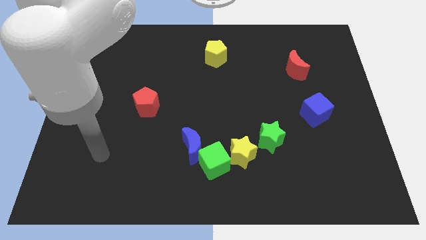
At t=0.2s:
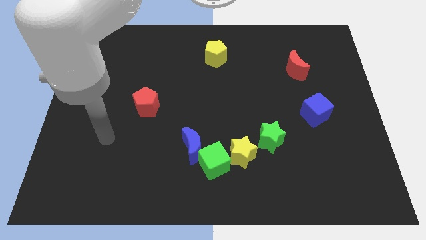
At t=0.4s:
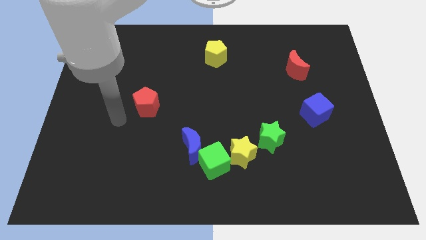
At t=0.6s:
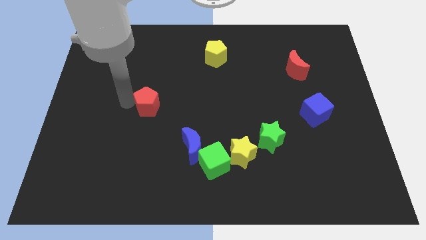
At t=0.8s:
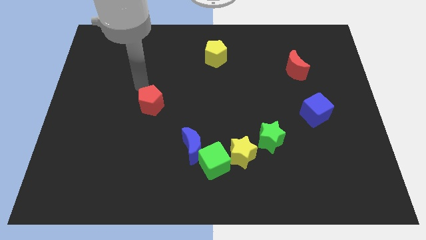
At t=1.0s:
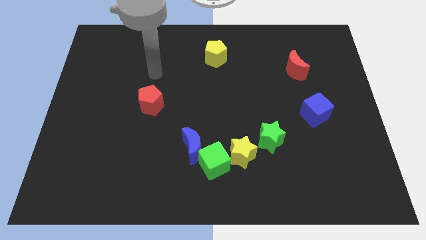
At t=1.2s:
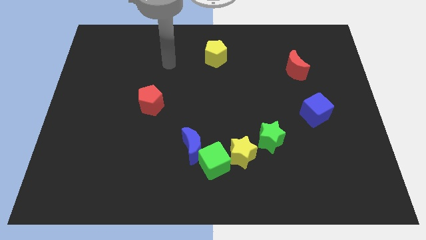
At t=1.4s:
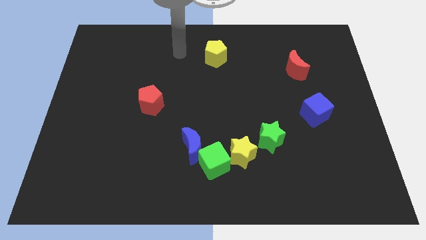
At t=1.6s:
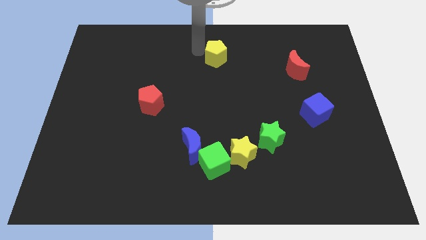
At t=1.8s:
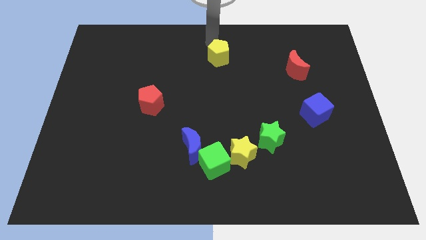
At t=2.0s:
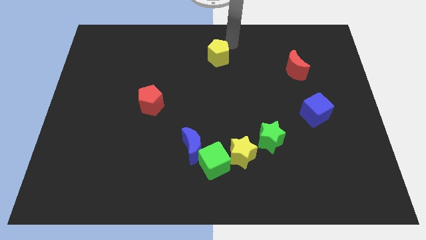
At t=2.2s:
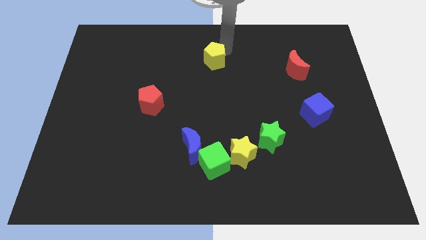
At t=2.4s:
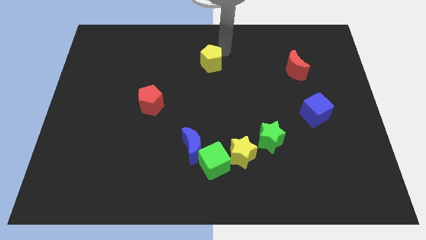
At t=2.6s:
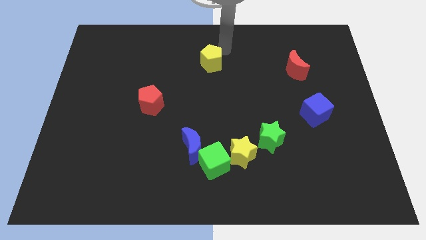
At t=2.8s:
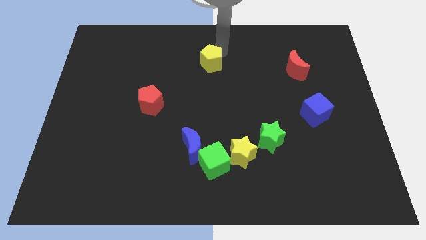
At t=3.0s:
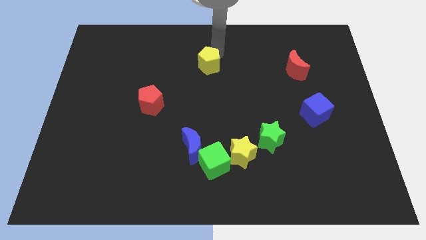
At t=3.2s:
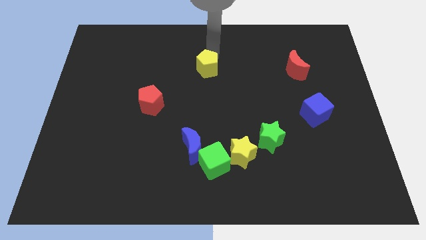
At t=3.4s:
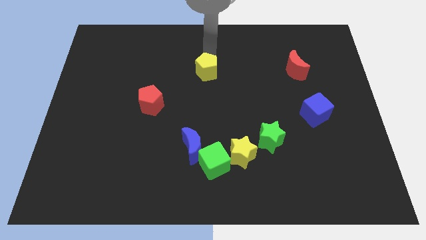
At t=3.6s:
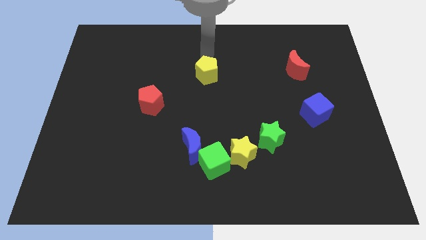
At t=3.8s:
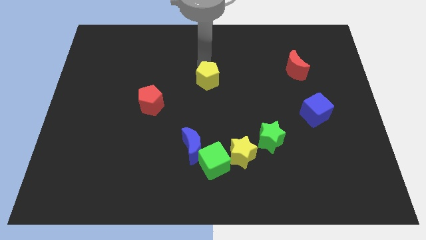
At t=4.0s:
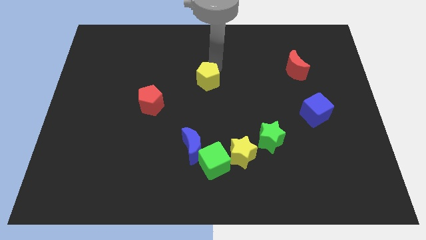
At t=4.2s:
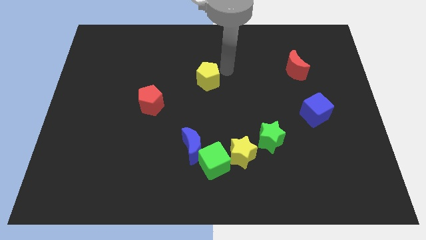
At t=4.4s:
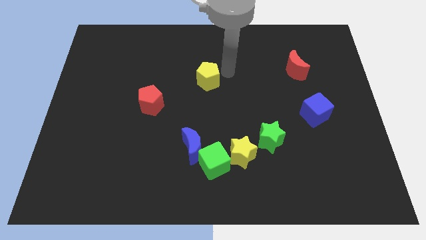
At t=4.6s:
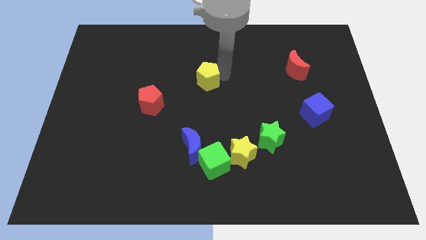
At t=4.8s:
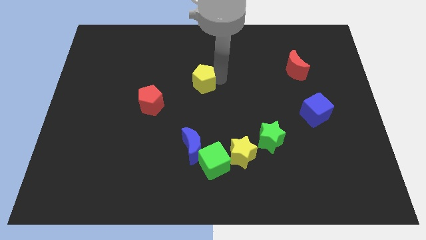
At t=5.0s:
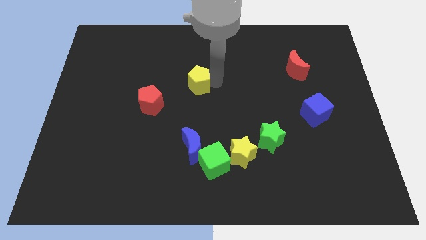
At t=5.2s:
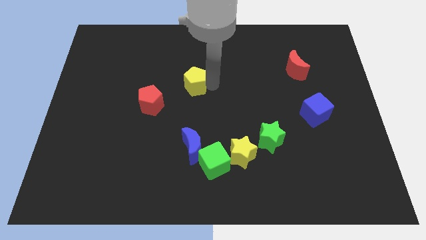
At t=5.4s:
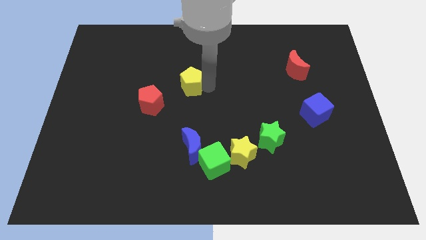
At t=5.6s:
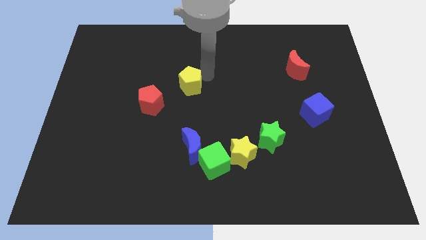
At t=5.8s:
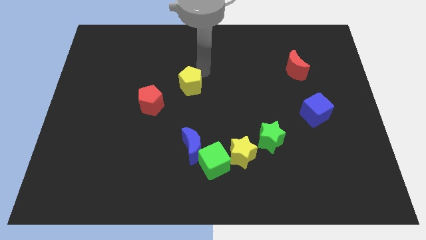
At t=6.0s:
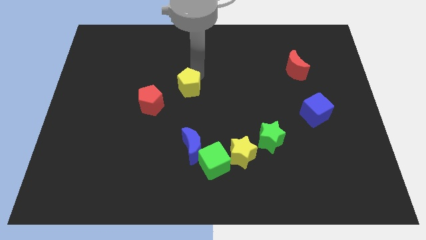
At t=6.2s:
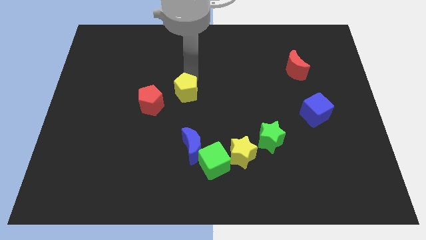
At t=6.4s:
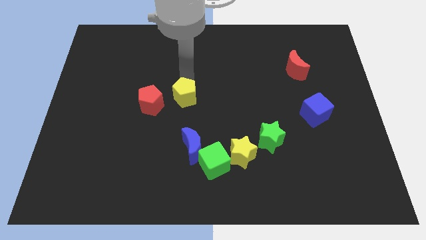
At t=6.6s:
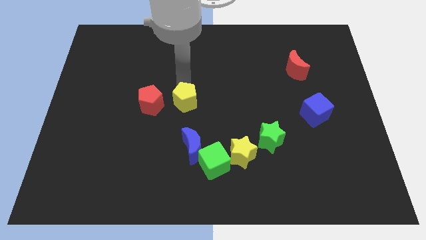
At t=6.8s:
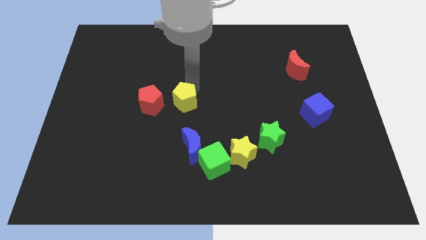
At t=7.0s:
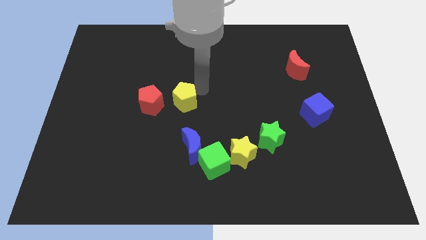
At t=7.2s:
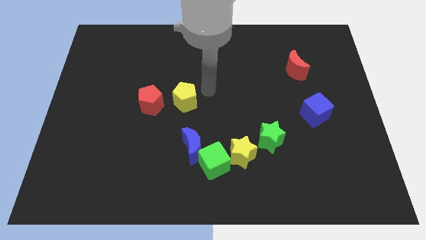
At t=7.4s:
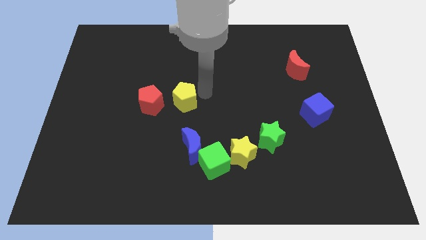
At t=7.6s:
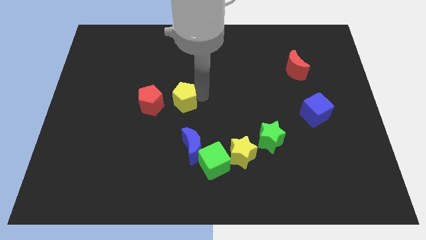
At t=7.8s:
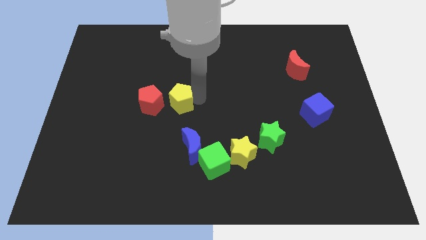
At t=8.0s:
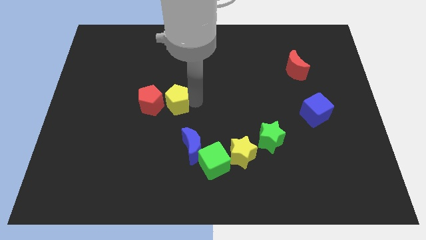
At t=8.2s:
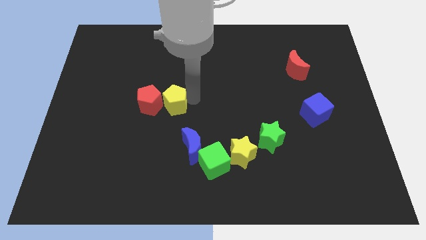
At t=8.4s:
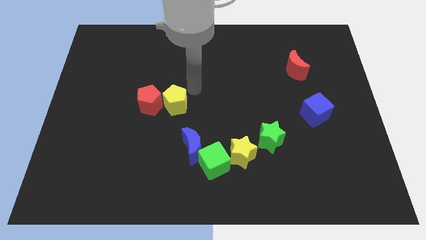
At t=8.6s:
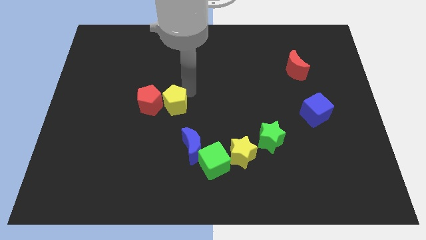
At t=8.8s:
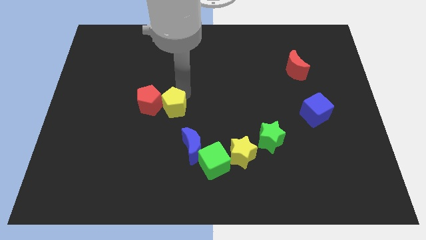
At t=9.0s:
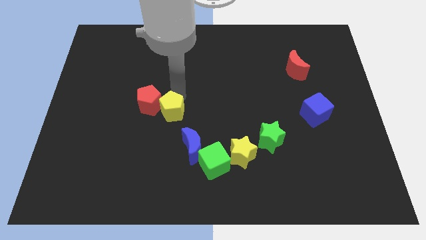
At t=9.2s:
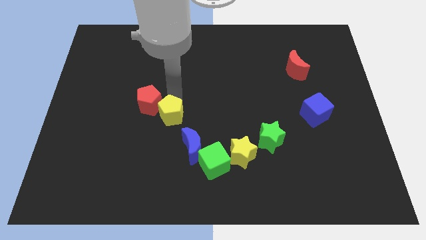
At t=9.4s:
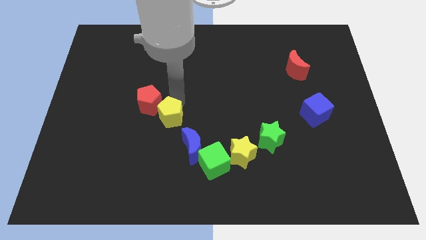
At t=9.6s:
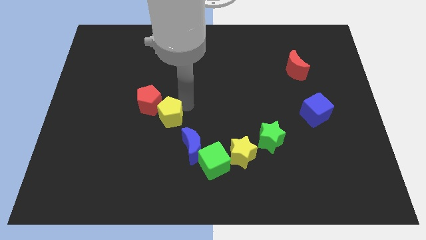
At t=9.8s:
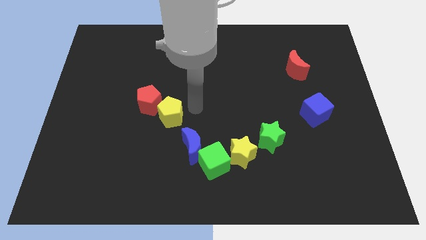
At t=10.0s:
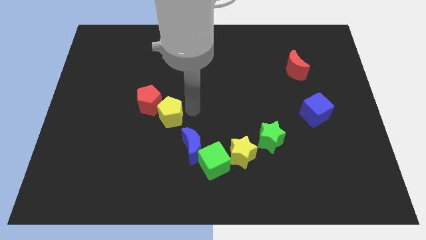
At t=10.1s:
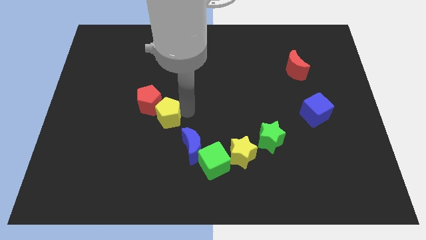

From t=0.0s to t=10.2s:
slide the yellow pentagon to the bottom side of the red pentagon

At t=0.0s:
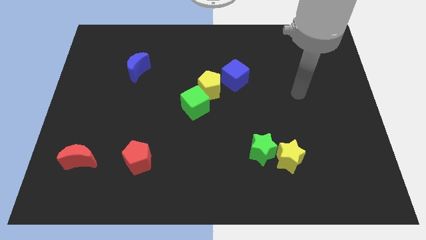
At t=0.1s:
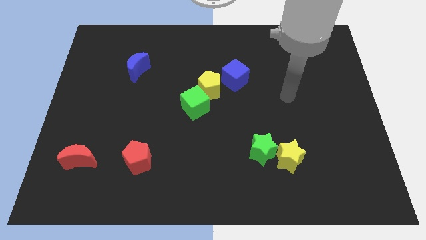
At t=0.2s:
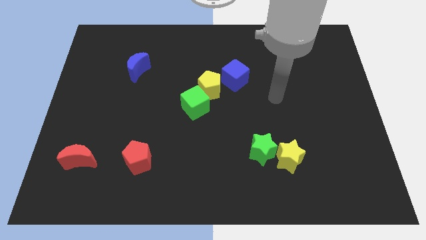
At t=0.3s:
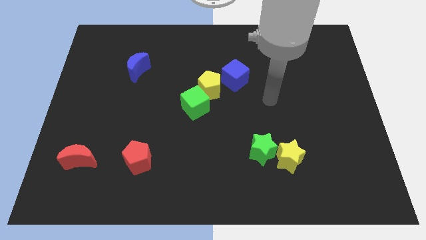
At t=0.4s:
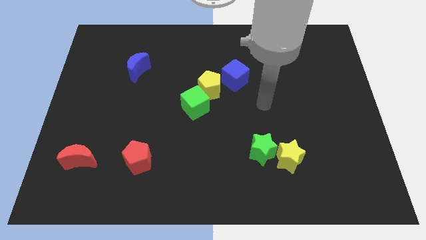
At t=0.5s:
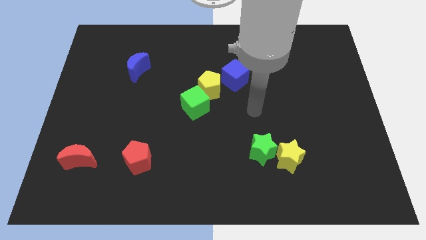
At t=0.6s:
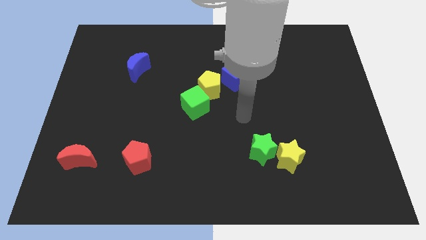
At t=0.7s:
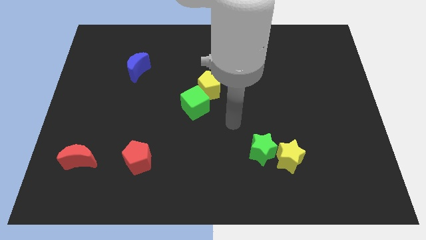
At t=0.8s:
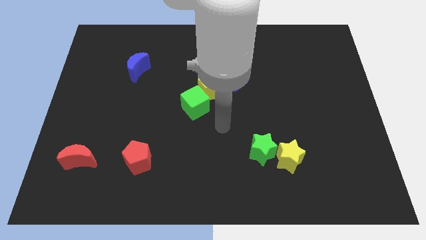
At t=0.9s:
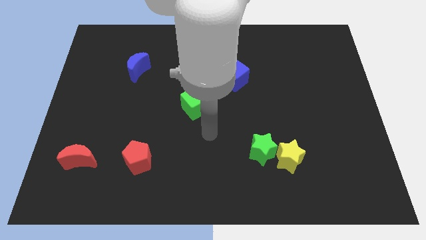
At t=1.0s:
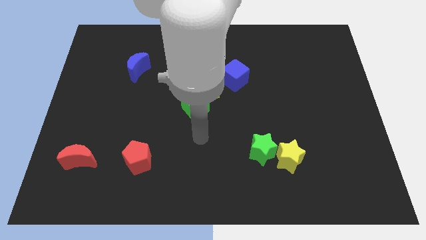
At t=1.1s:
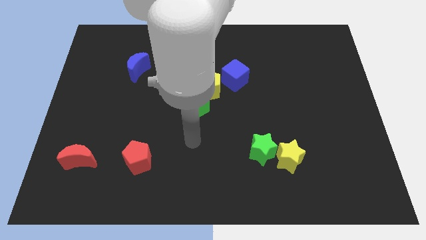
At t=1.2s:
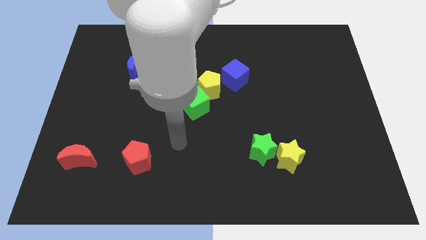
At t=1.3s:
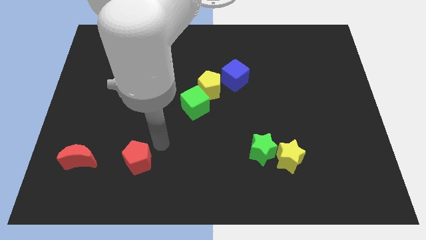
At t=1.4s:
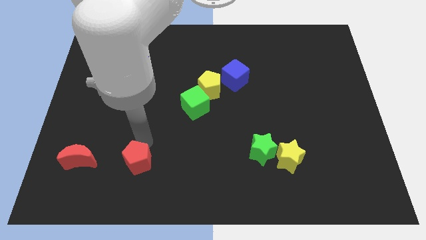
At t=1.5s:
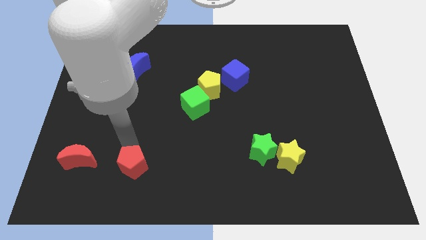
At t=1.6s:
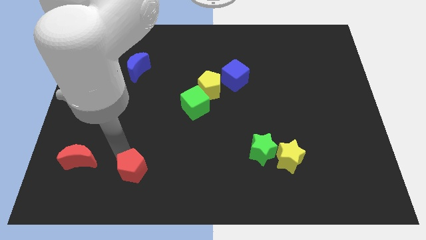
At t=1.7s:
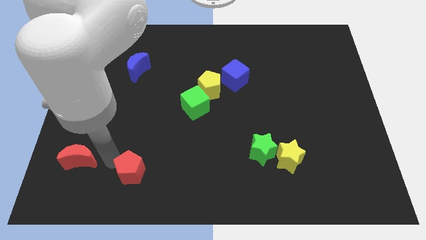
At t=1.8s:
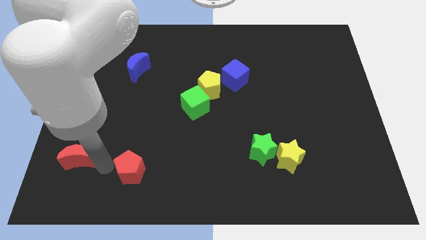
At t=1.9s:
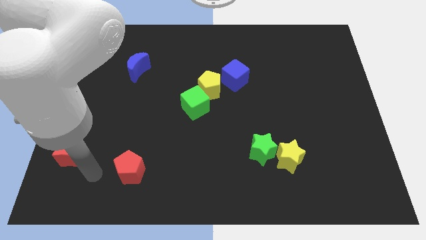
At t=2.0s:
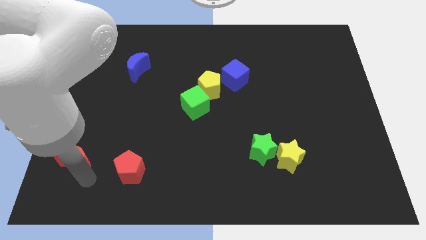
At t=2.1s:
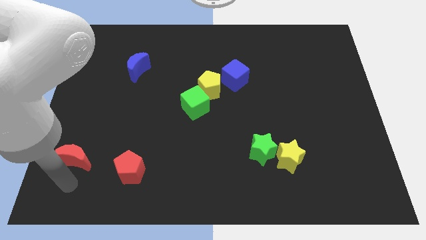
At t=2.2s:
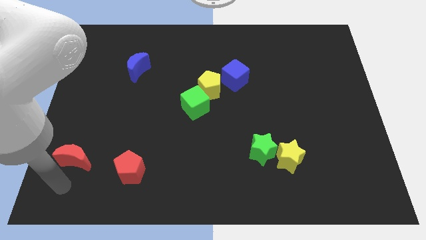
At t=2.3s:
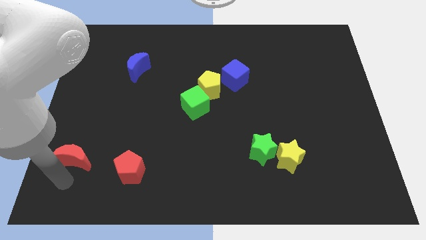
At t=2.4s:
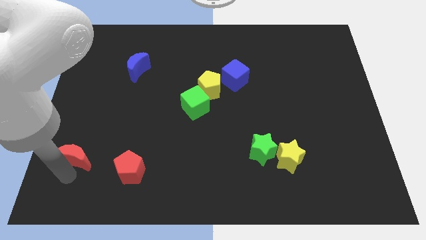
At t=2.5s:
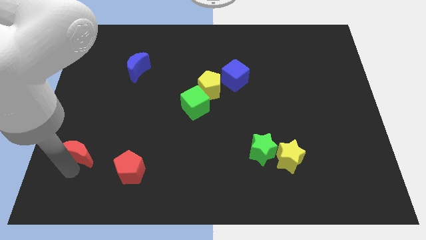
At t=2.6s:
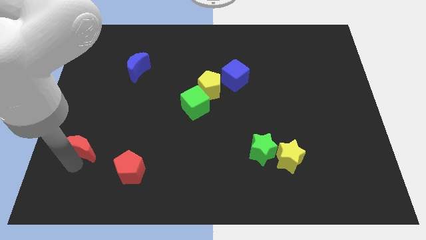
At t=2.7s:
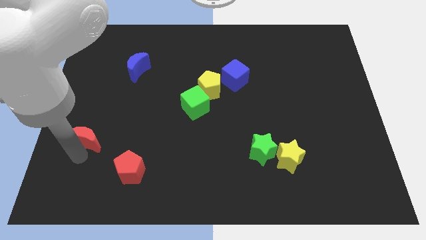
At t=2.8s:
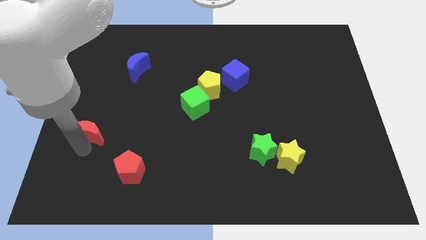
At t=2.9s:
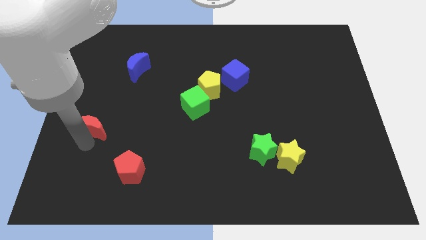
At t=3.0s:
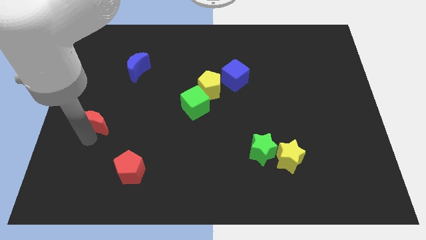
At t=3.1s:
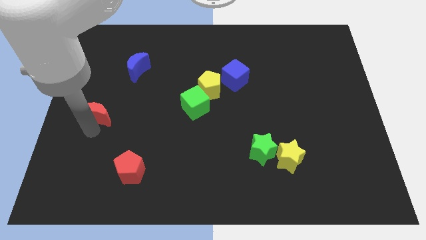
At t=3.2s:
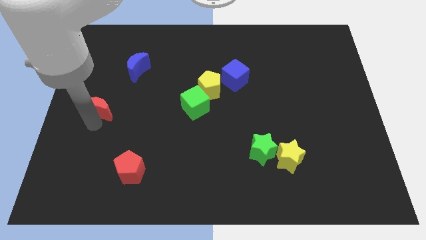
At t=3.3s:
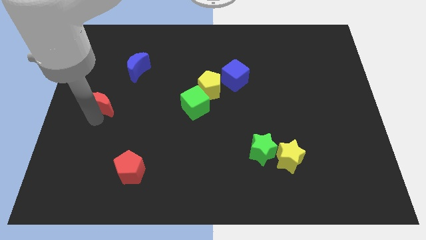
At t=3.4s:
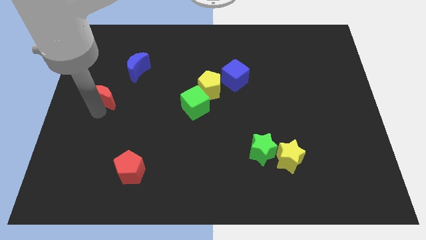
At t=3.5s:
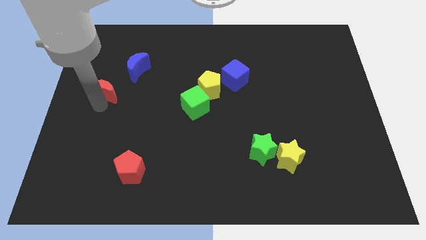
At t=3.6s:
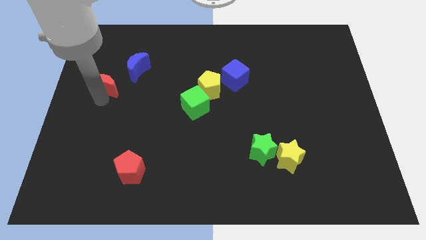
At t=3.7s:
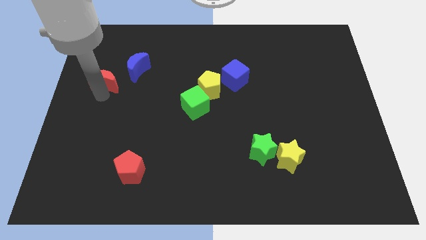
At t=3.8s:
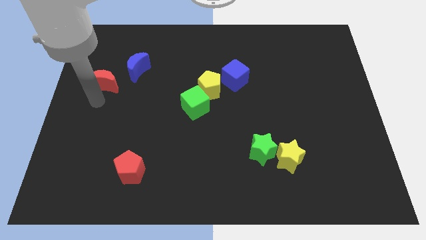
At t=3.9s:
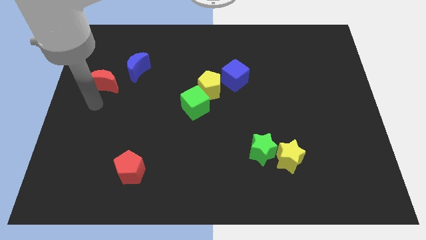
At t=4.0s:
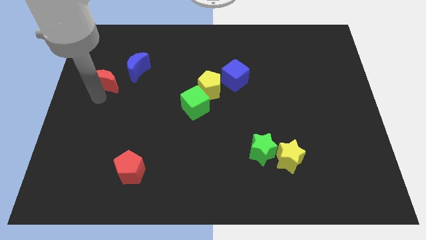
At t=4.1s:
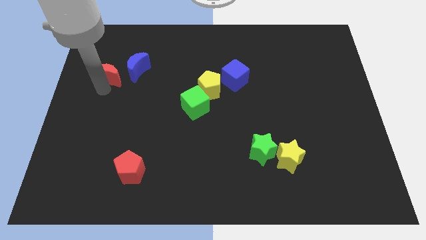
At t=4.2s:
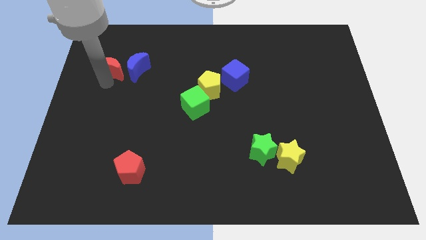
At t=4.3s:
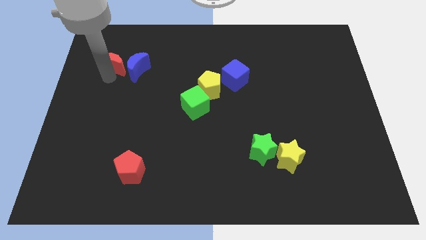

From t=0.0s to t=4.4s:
push the red moon to the top left of the blue moon
